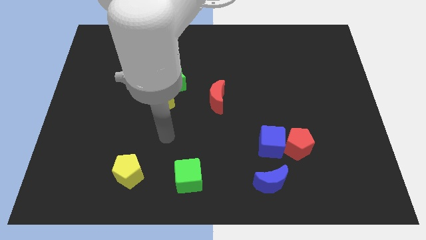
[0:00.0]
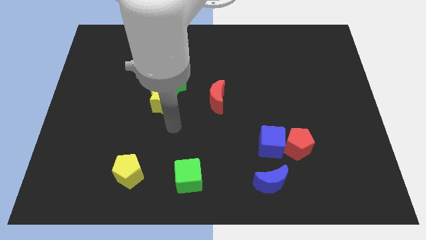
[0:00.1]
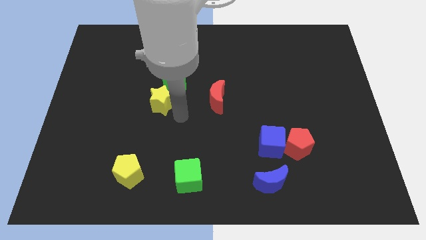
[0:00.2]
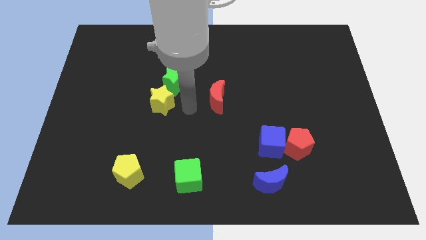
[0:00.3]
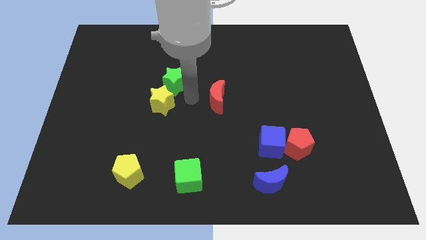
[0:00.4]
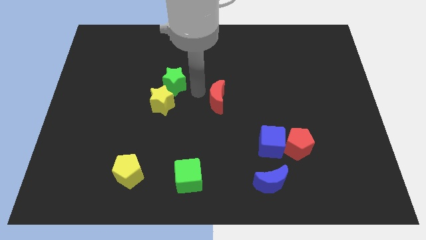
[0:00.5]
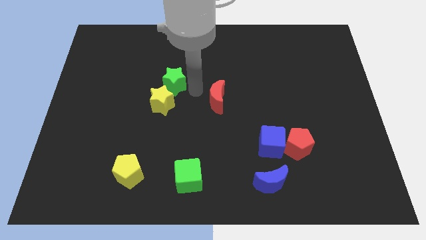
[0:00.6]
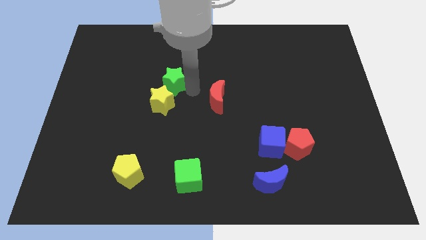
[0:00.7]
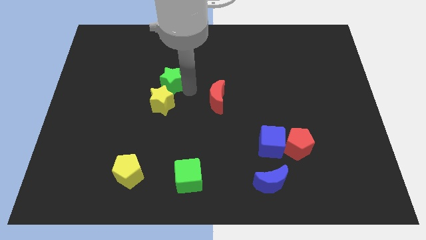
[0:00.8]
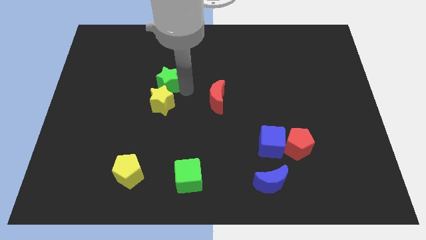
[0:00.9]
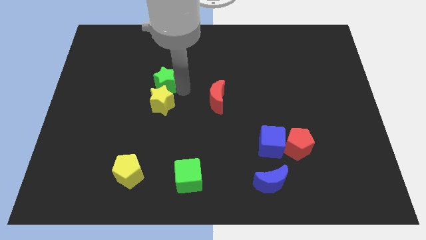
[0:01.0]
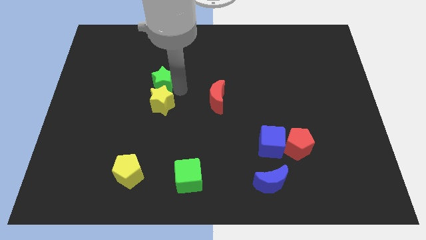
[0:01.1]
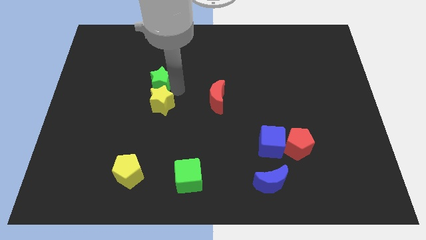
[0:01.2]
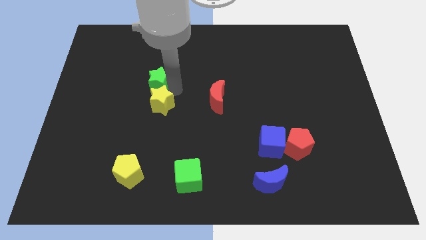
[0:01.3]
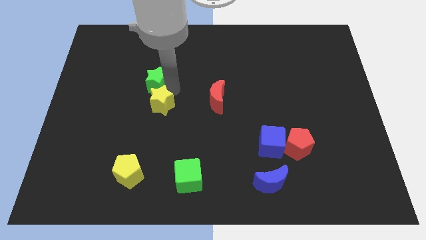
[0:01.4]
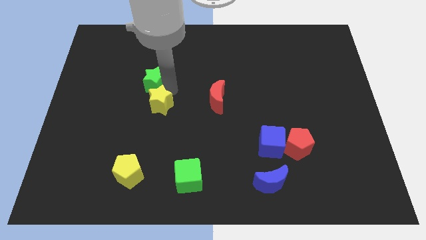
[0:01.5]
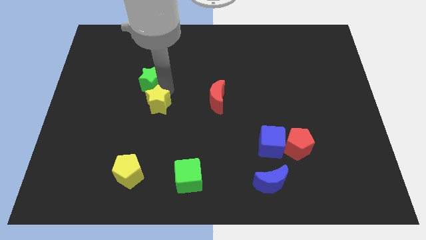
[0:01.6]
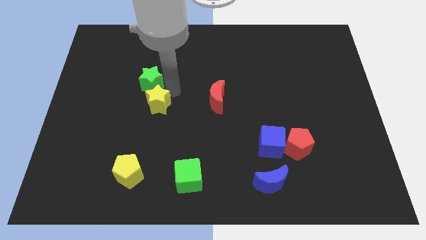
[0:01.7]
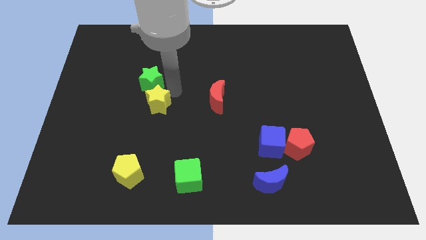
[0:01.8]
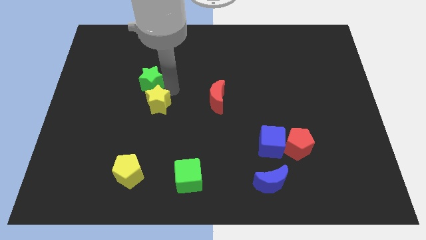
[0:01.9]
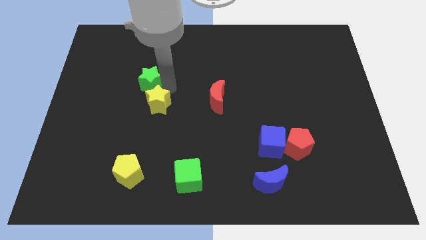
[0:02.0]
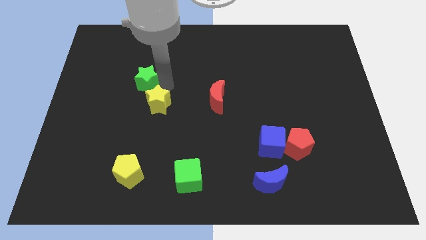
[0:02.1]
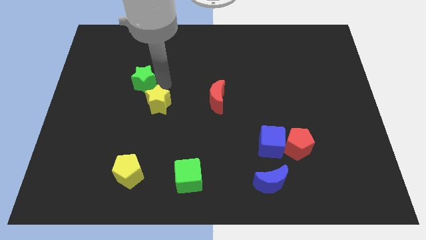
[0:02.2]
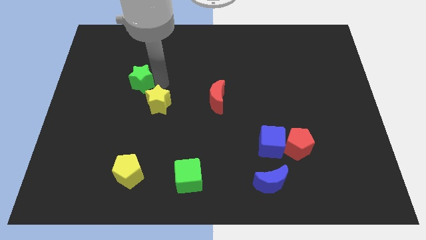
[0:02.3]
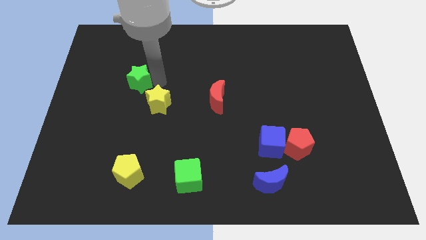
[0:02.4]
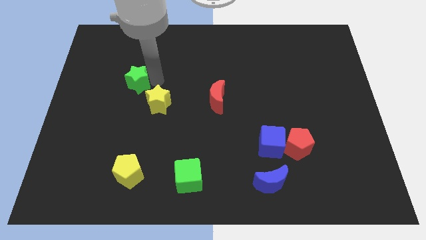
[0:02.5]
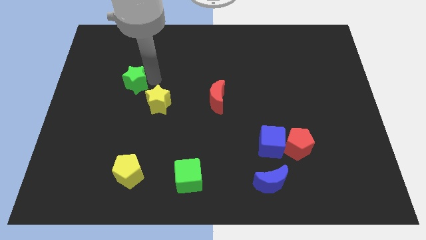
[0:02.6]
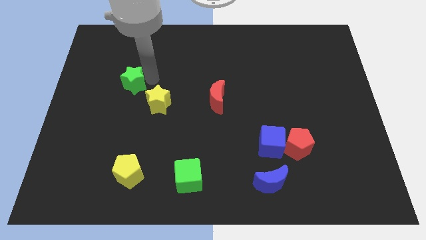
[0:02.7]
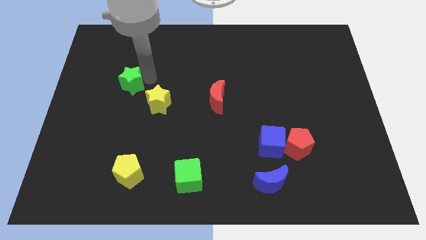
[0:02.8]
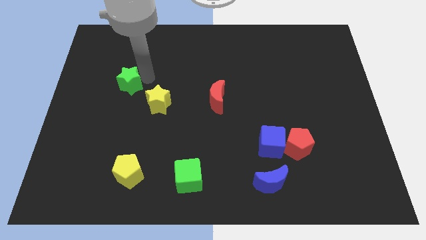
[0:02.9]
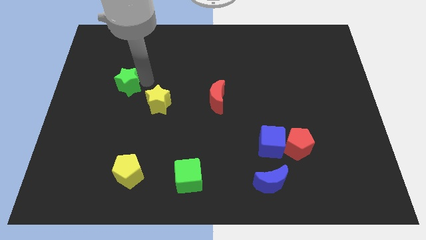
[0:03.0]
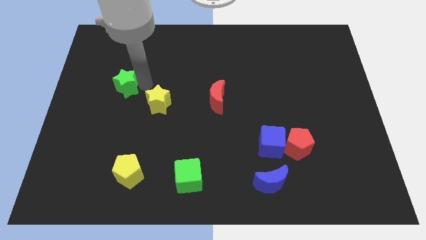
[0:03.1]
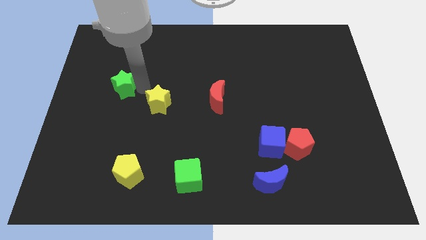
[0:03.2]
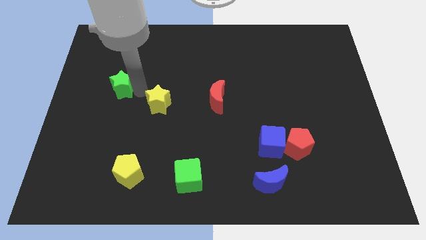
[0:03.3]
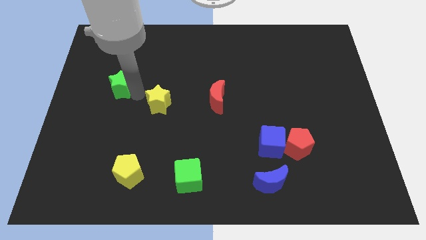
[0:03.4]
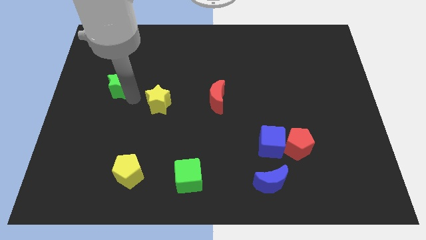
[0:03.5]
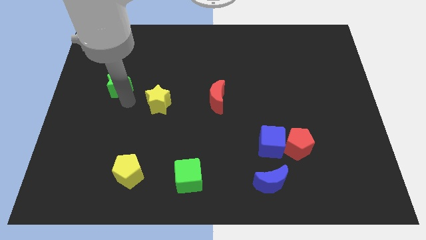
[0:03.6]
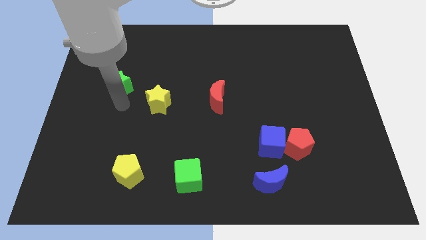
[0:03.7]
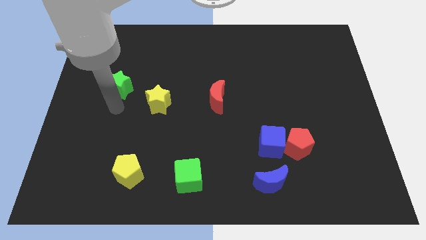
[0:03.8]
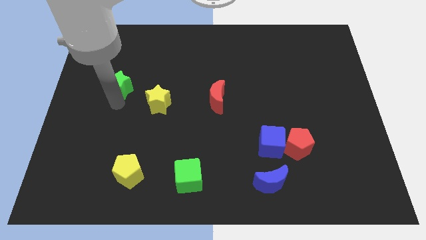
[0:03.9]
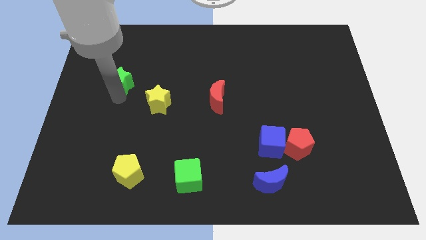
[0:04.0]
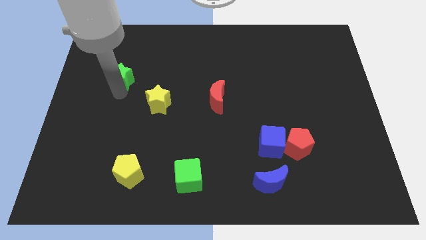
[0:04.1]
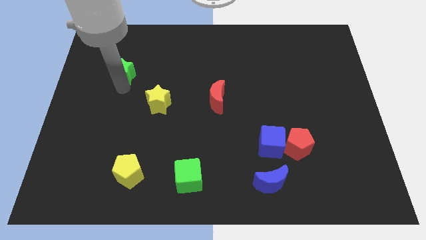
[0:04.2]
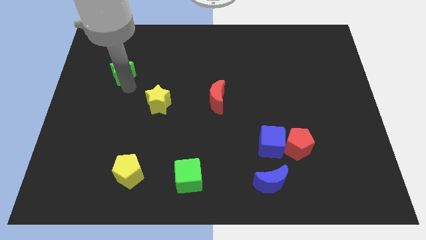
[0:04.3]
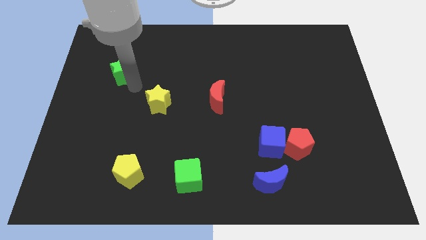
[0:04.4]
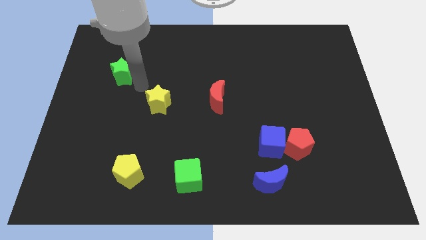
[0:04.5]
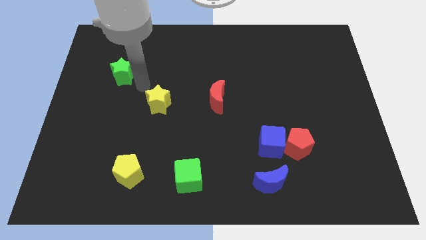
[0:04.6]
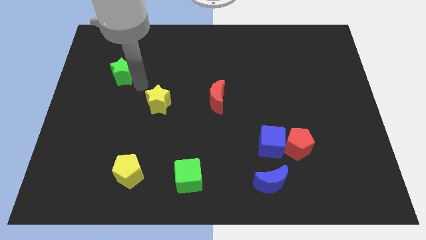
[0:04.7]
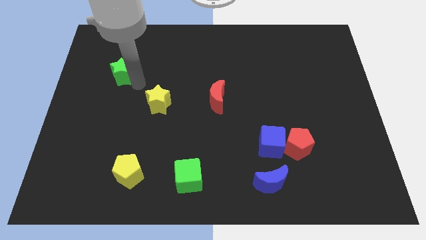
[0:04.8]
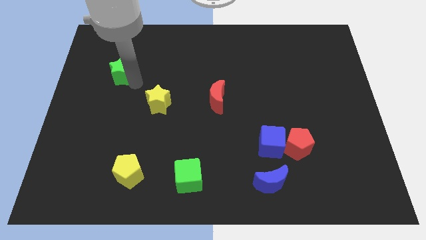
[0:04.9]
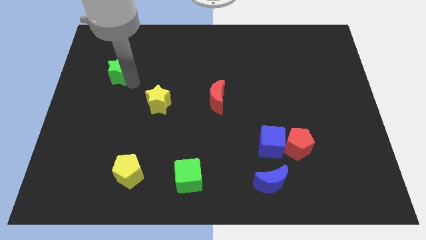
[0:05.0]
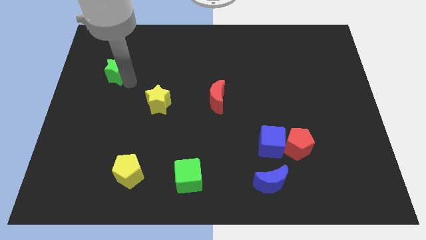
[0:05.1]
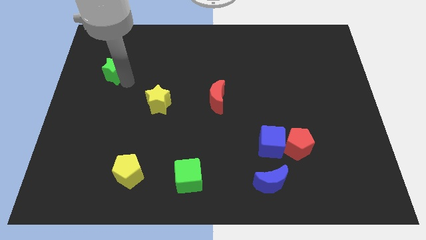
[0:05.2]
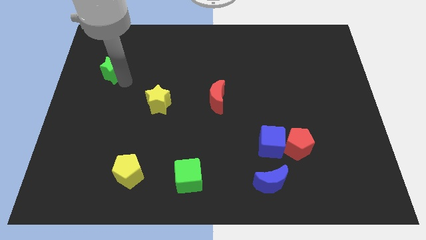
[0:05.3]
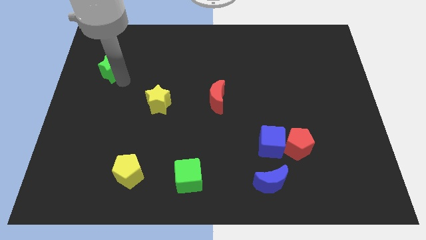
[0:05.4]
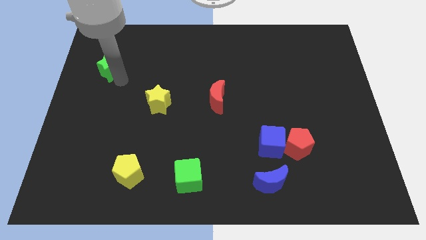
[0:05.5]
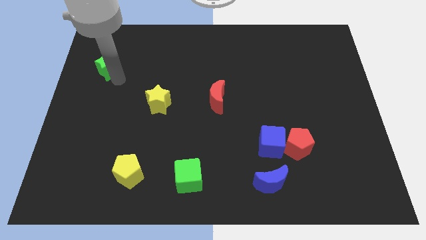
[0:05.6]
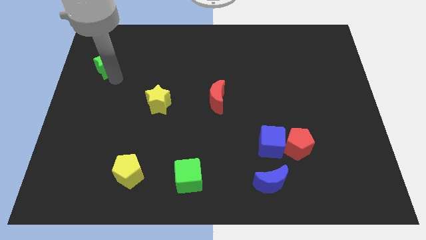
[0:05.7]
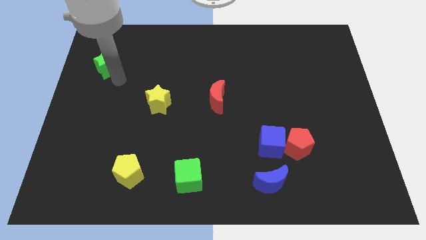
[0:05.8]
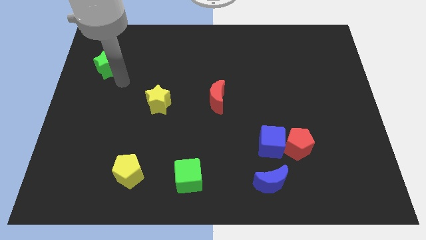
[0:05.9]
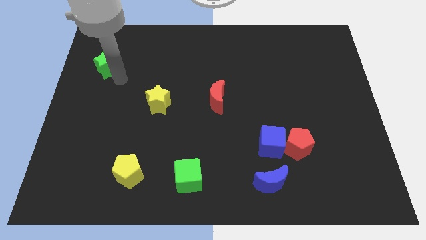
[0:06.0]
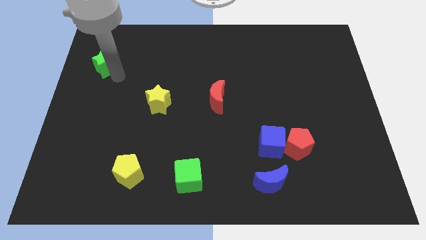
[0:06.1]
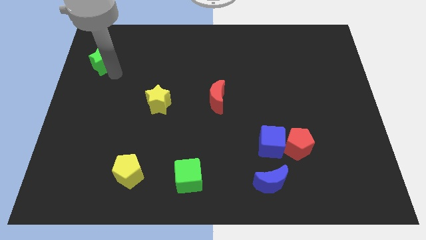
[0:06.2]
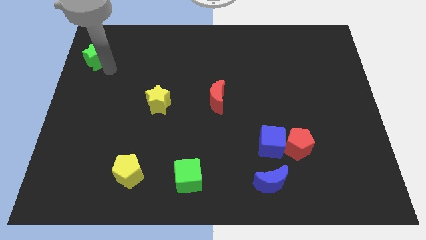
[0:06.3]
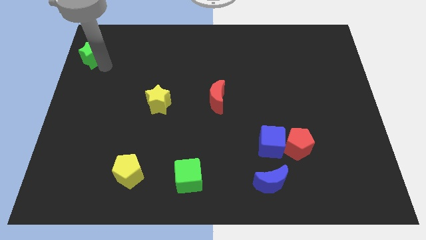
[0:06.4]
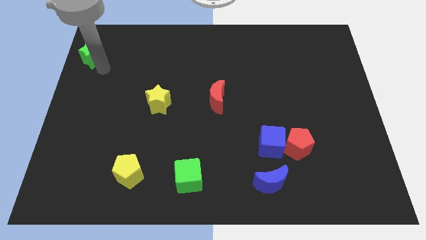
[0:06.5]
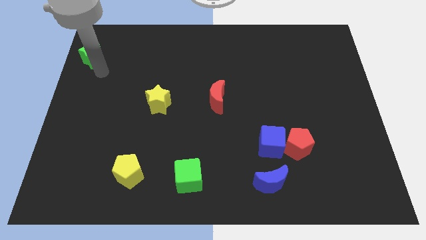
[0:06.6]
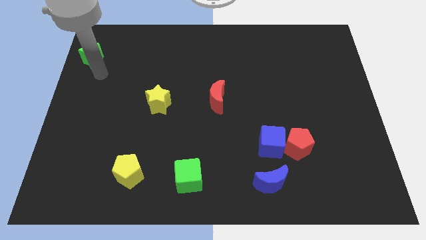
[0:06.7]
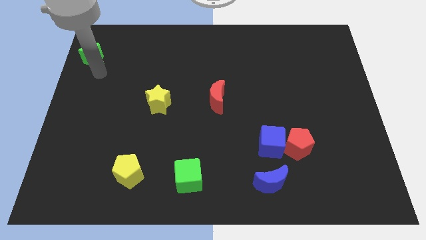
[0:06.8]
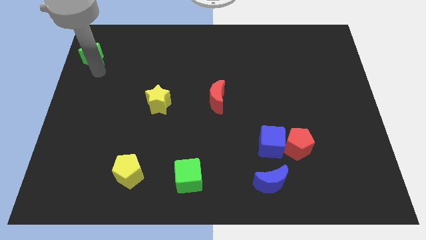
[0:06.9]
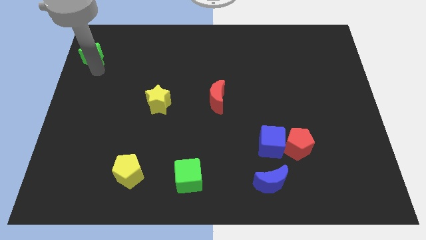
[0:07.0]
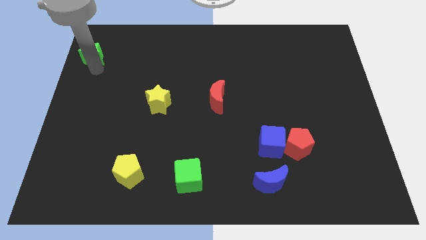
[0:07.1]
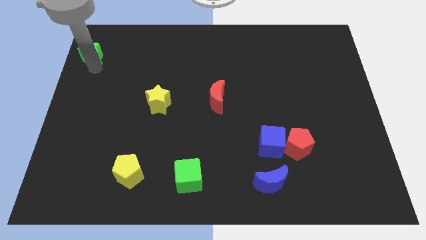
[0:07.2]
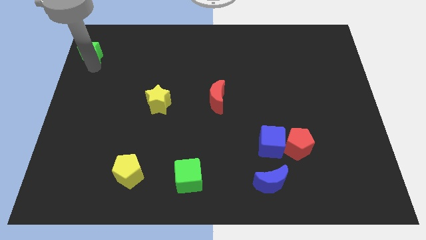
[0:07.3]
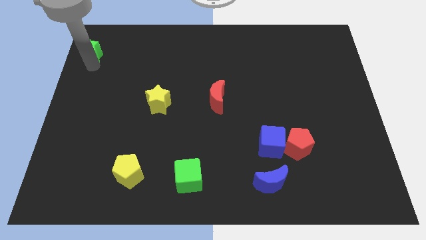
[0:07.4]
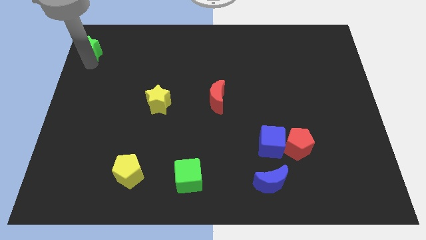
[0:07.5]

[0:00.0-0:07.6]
move the green star to the top left
